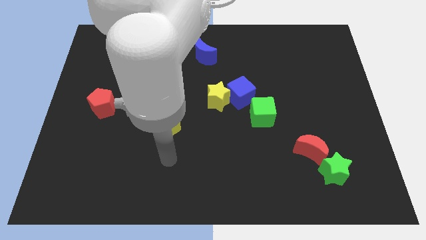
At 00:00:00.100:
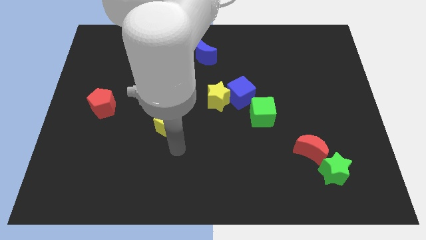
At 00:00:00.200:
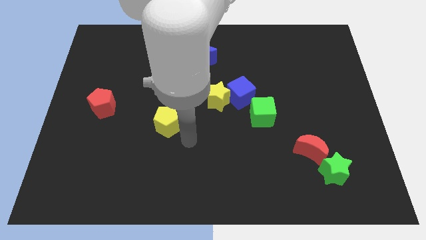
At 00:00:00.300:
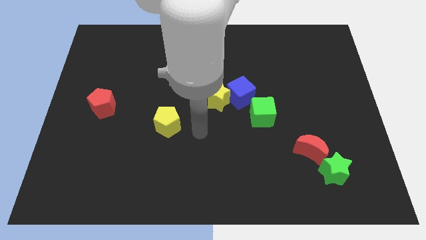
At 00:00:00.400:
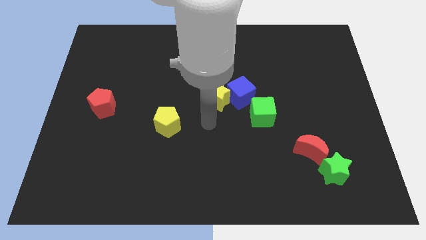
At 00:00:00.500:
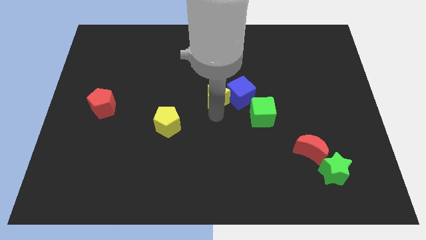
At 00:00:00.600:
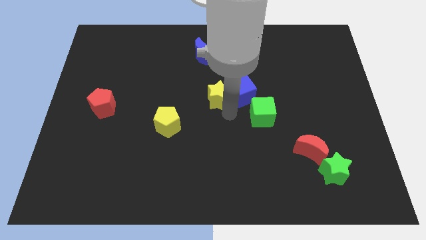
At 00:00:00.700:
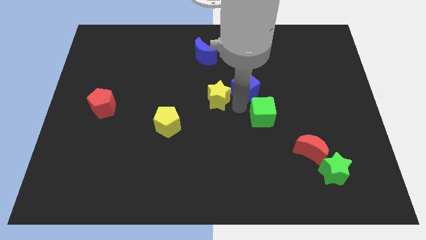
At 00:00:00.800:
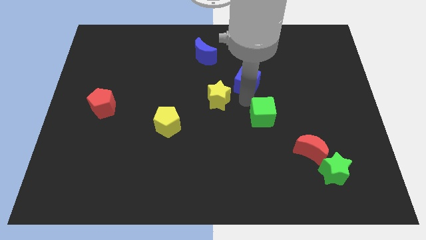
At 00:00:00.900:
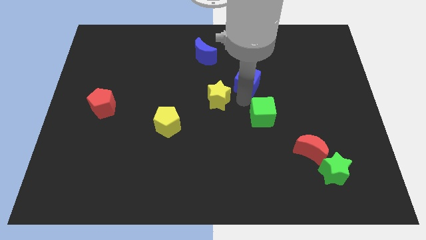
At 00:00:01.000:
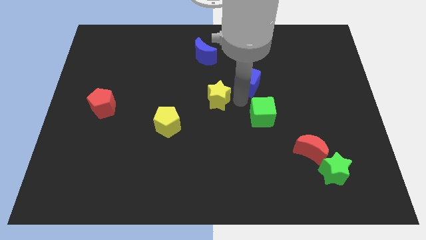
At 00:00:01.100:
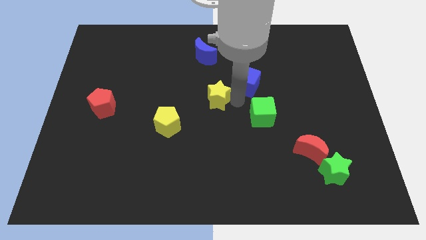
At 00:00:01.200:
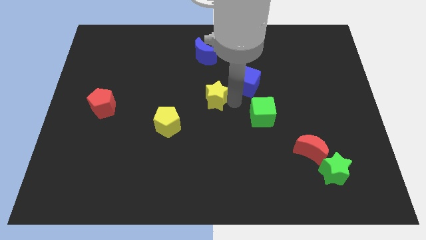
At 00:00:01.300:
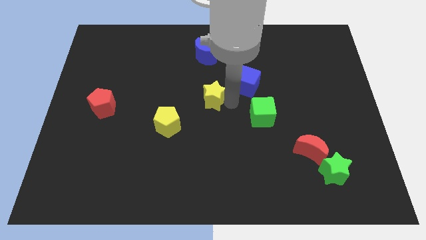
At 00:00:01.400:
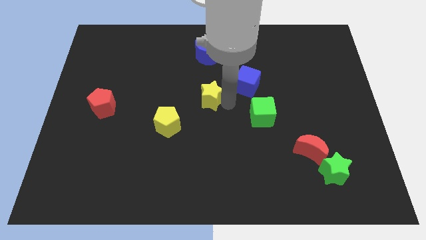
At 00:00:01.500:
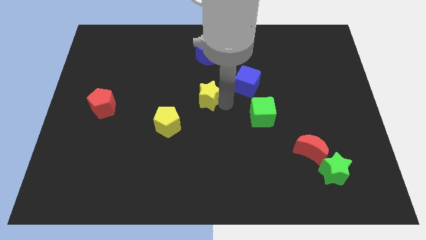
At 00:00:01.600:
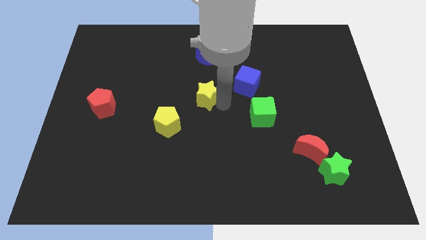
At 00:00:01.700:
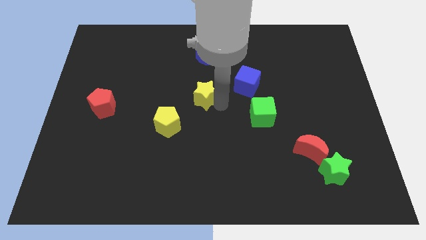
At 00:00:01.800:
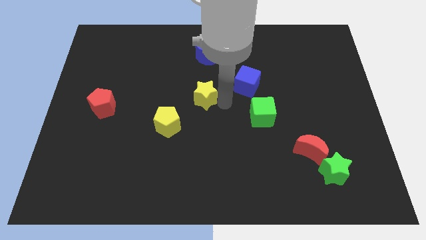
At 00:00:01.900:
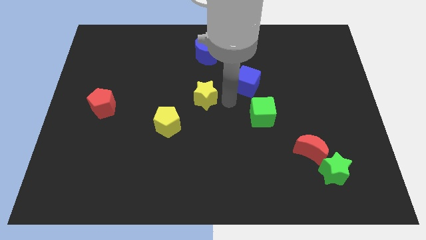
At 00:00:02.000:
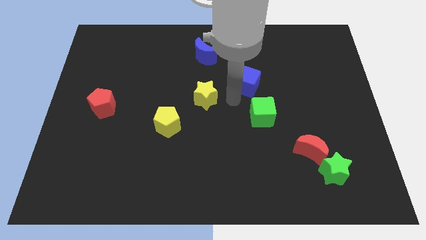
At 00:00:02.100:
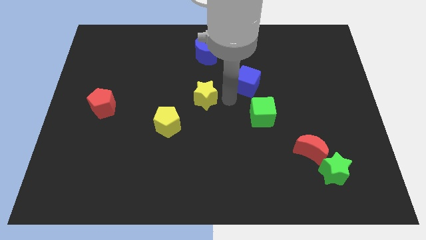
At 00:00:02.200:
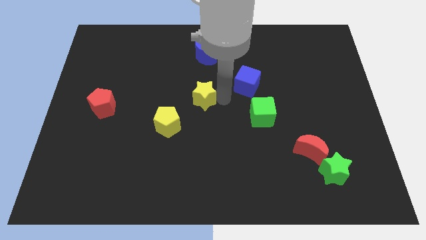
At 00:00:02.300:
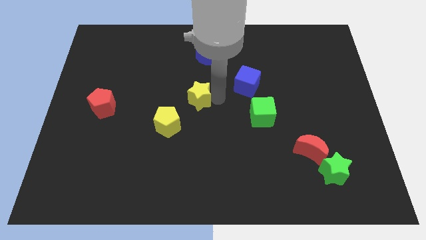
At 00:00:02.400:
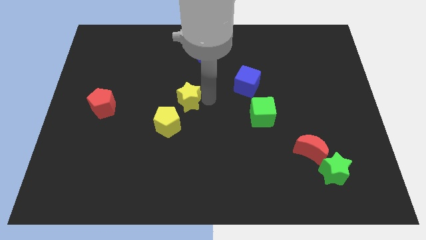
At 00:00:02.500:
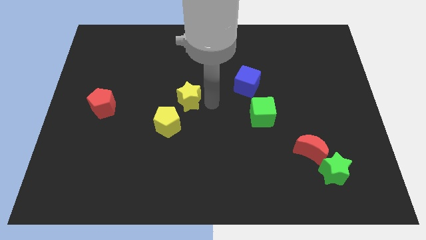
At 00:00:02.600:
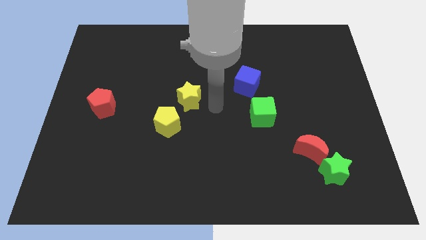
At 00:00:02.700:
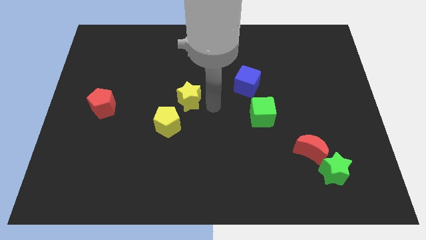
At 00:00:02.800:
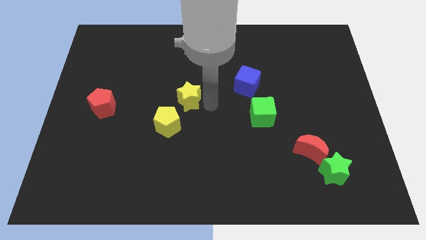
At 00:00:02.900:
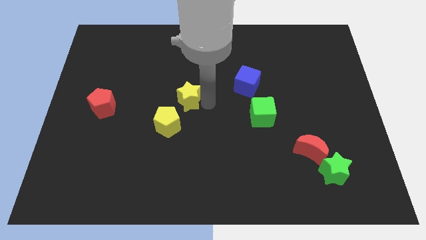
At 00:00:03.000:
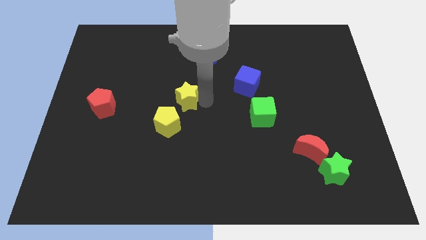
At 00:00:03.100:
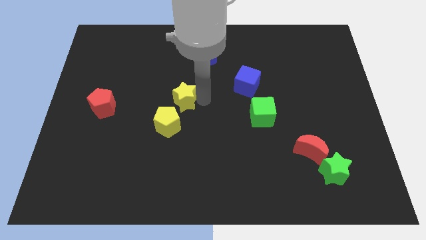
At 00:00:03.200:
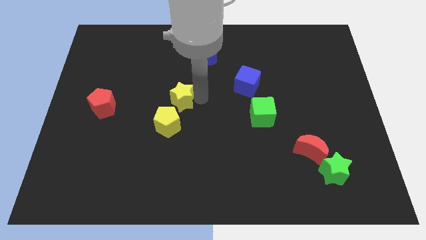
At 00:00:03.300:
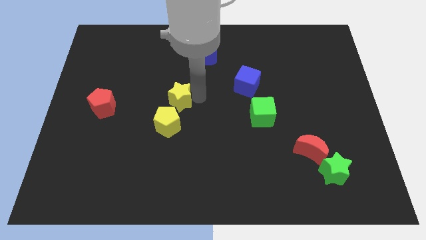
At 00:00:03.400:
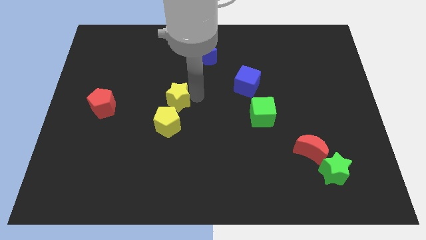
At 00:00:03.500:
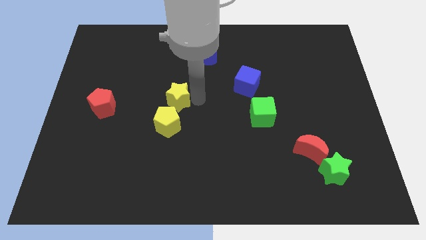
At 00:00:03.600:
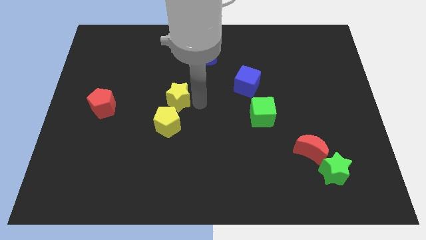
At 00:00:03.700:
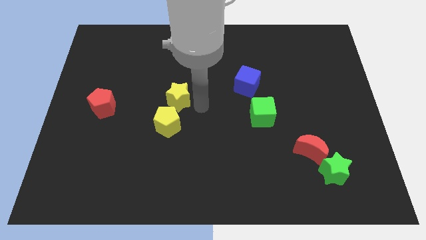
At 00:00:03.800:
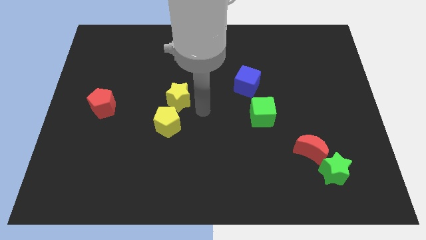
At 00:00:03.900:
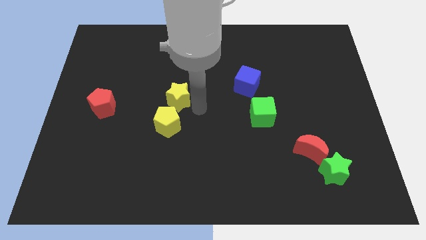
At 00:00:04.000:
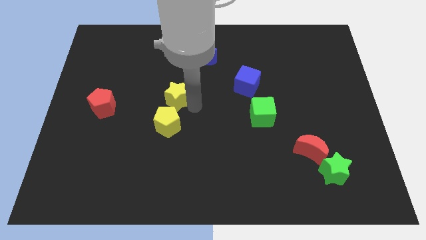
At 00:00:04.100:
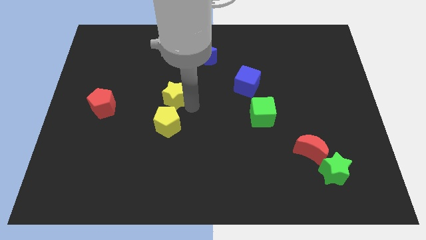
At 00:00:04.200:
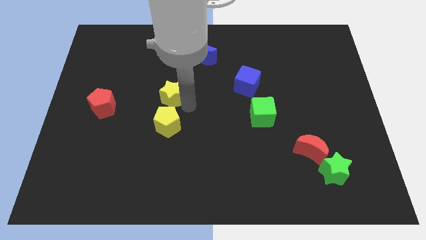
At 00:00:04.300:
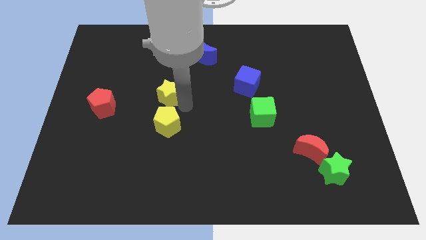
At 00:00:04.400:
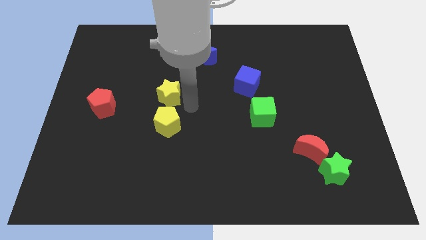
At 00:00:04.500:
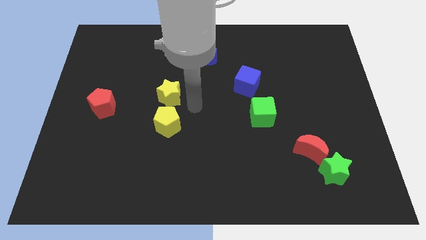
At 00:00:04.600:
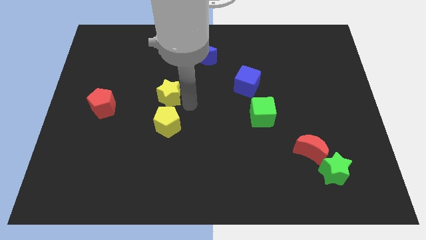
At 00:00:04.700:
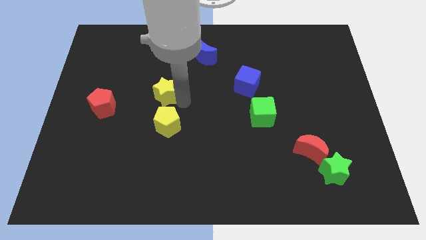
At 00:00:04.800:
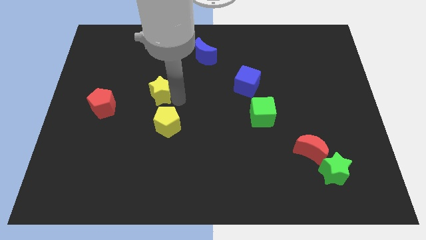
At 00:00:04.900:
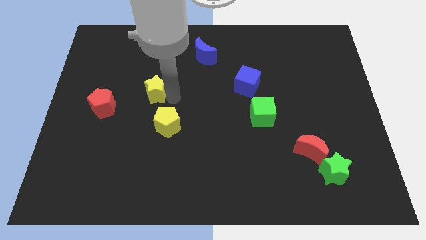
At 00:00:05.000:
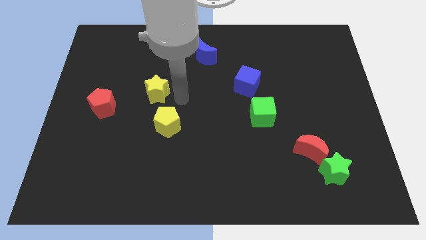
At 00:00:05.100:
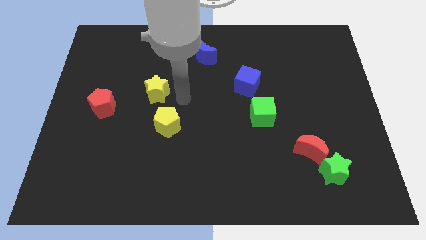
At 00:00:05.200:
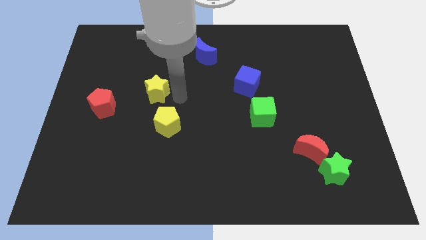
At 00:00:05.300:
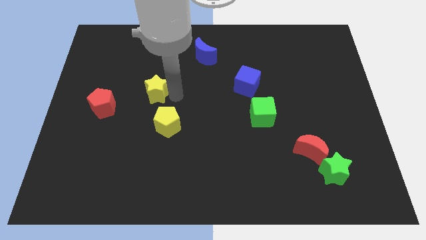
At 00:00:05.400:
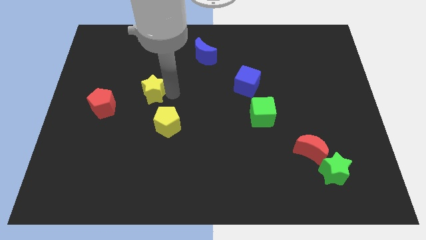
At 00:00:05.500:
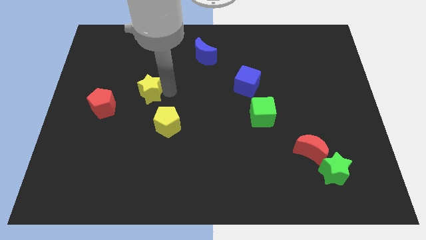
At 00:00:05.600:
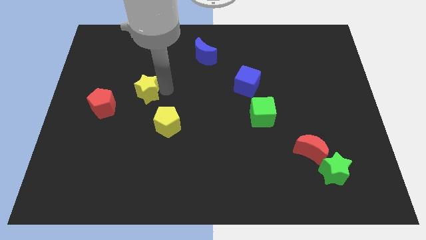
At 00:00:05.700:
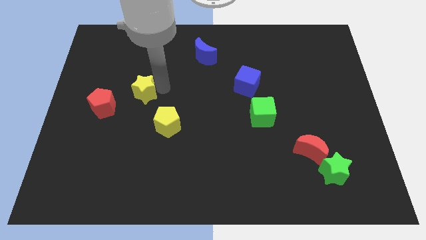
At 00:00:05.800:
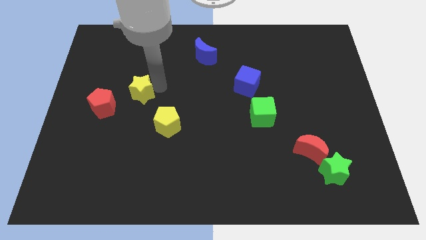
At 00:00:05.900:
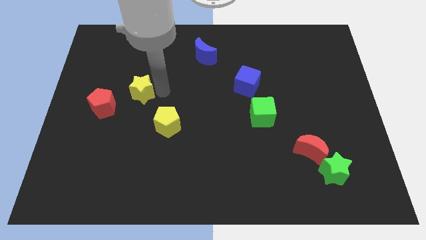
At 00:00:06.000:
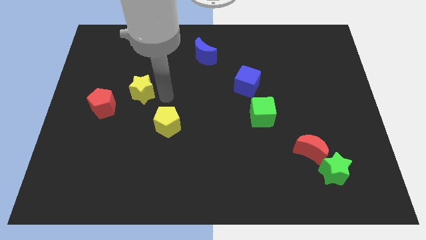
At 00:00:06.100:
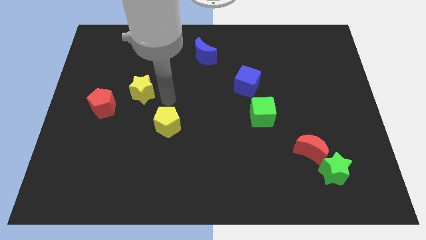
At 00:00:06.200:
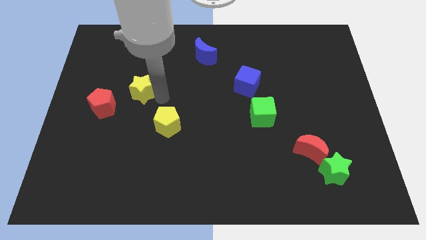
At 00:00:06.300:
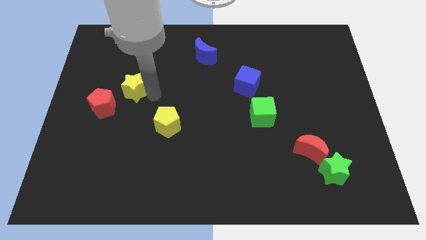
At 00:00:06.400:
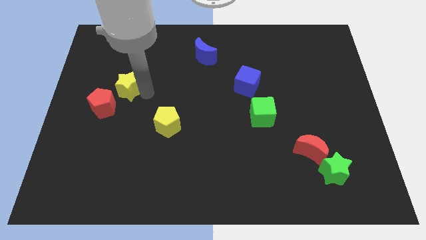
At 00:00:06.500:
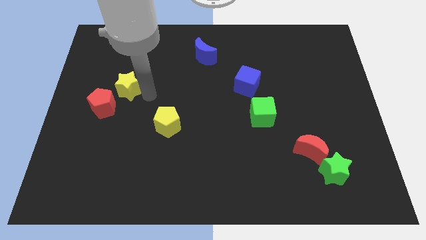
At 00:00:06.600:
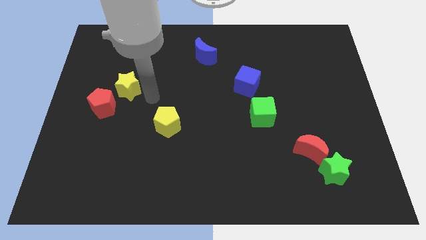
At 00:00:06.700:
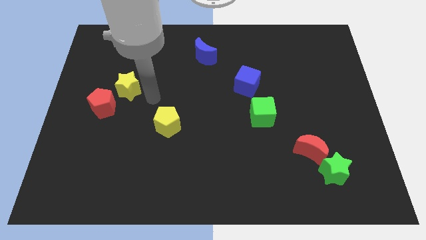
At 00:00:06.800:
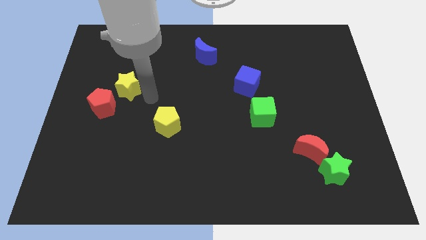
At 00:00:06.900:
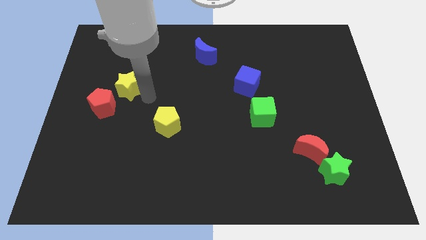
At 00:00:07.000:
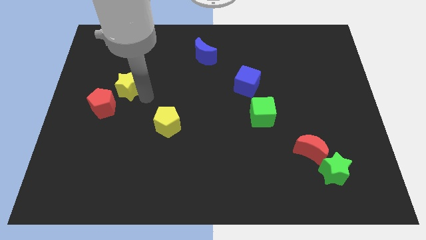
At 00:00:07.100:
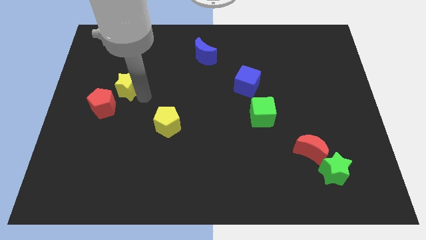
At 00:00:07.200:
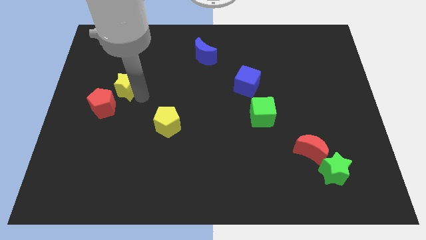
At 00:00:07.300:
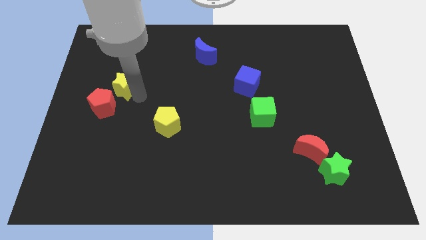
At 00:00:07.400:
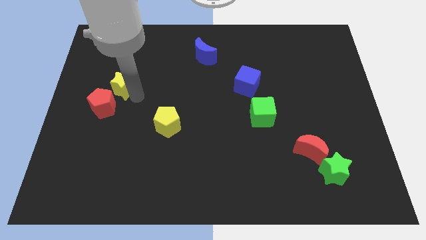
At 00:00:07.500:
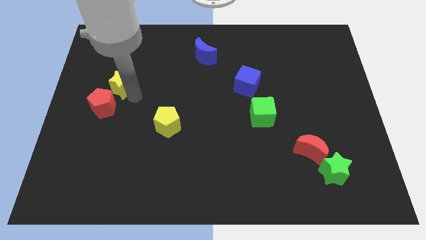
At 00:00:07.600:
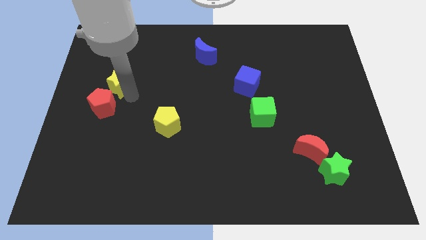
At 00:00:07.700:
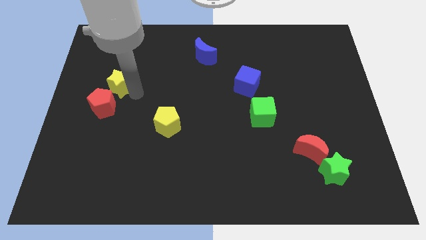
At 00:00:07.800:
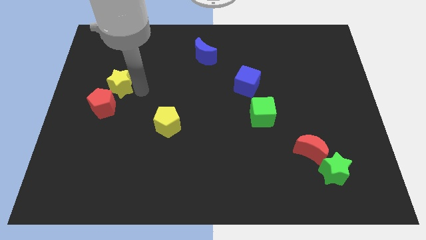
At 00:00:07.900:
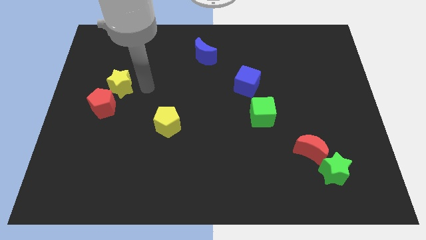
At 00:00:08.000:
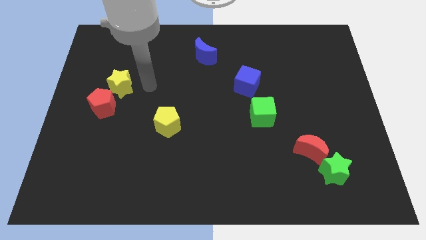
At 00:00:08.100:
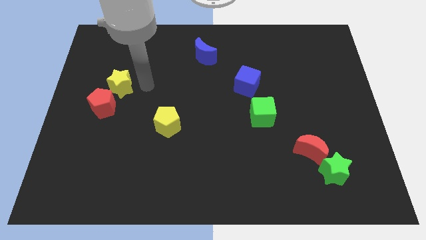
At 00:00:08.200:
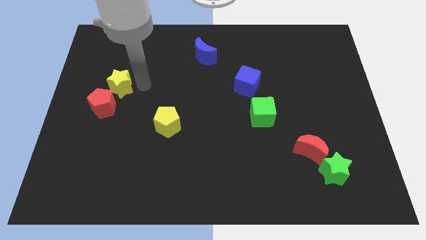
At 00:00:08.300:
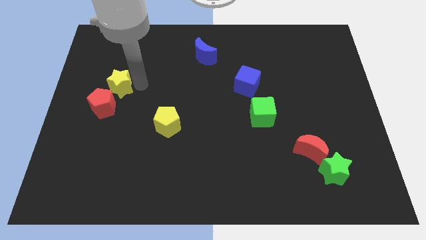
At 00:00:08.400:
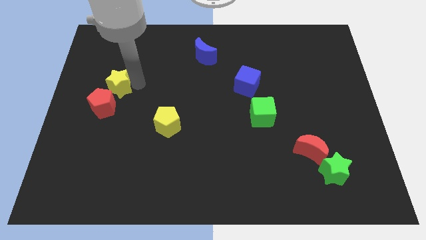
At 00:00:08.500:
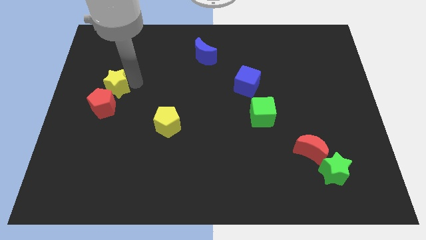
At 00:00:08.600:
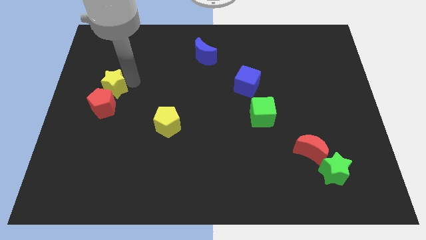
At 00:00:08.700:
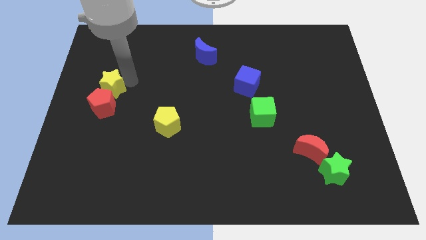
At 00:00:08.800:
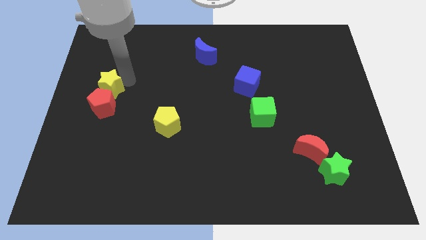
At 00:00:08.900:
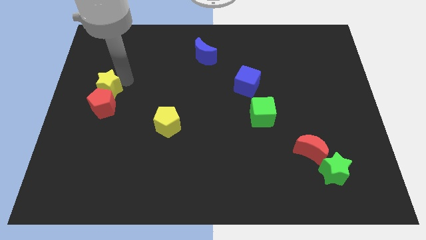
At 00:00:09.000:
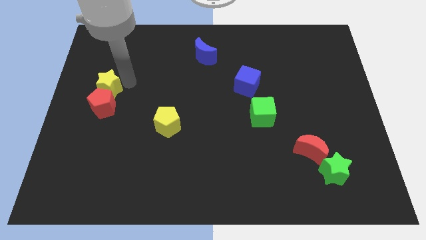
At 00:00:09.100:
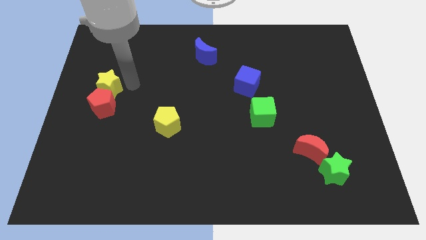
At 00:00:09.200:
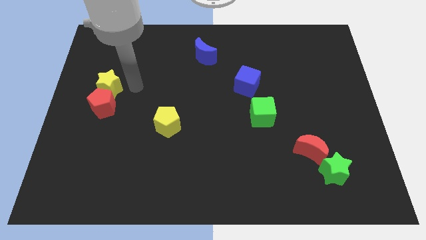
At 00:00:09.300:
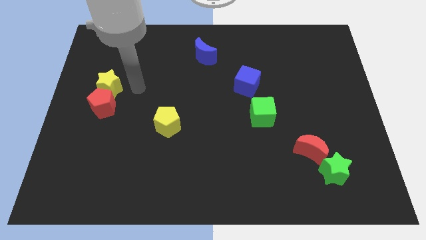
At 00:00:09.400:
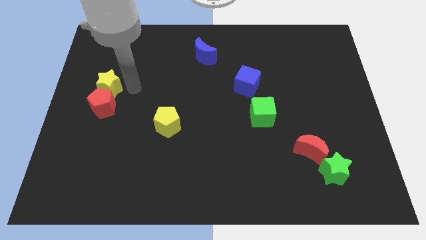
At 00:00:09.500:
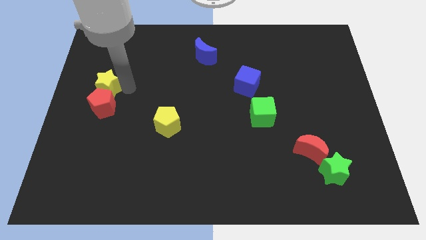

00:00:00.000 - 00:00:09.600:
push the yellow star to the left side of the board
